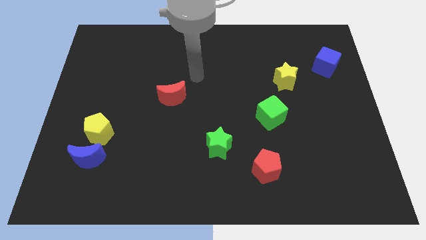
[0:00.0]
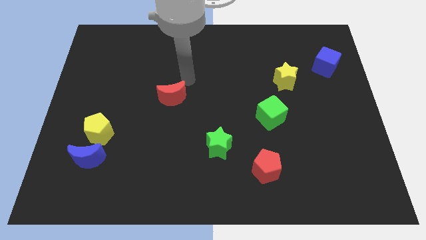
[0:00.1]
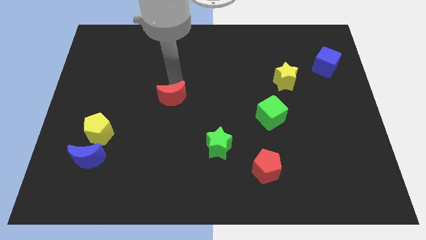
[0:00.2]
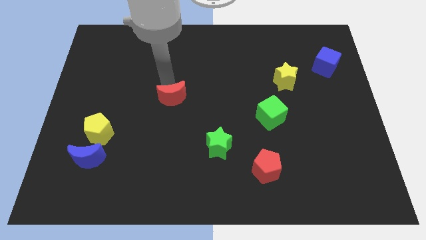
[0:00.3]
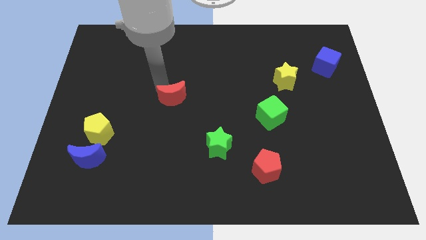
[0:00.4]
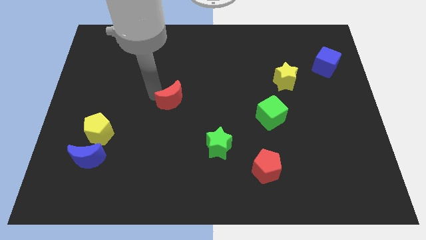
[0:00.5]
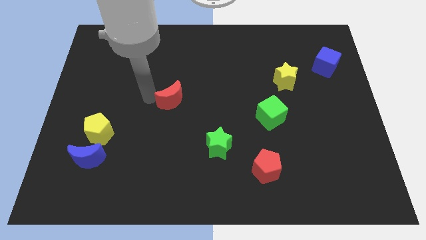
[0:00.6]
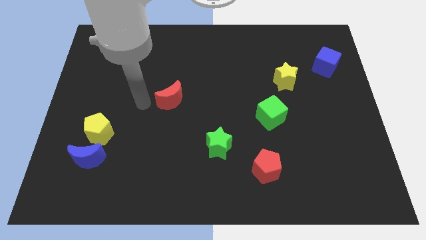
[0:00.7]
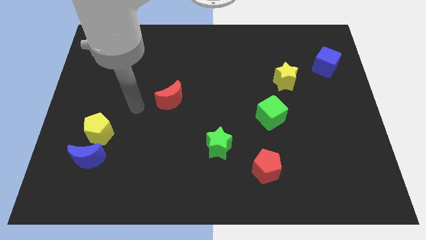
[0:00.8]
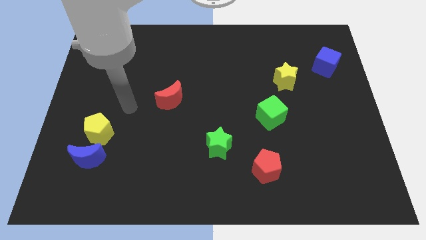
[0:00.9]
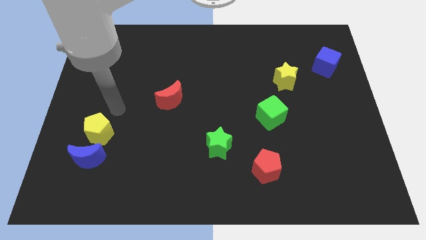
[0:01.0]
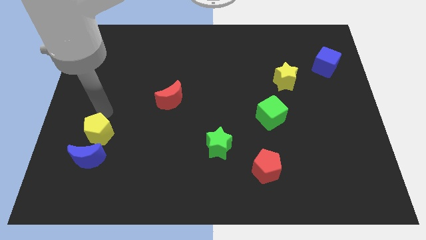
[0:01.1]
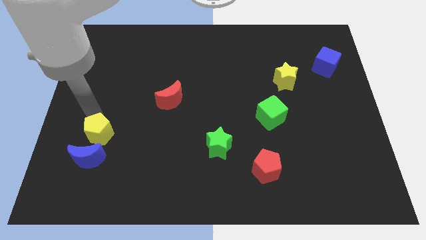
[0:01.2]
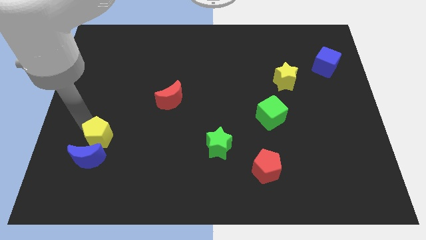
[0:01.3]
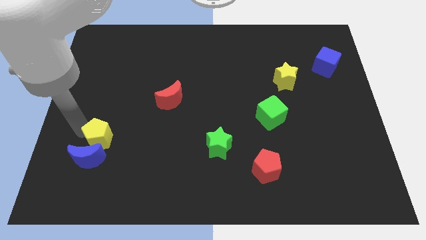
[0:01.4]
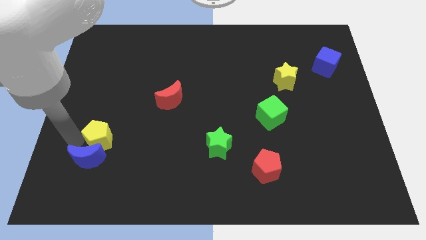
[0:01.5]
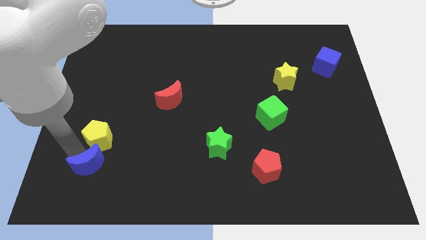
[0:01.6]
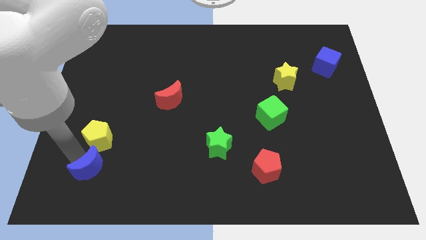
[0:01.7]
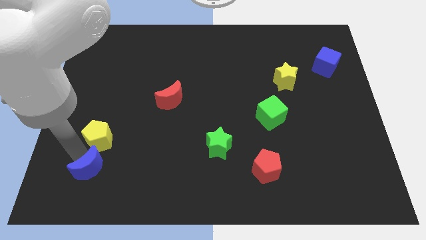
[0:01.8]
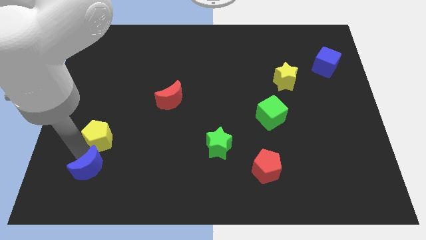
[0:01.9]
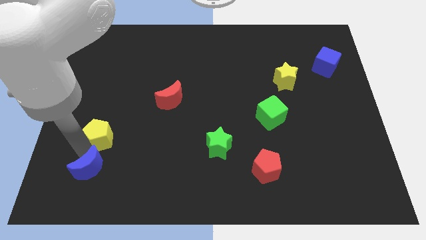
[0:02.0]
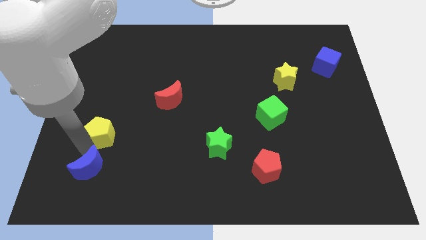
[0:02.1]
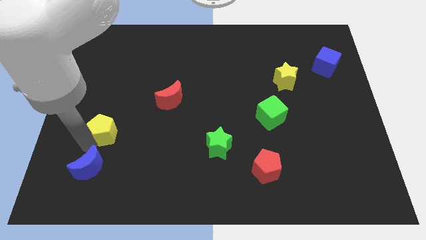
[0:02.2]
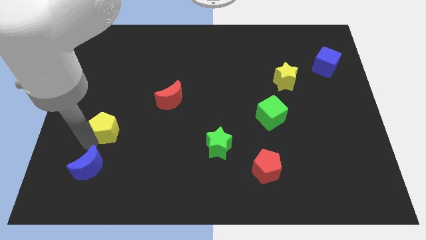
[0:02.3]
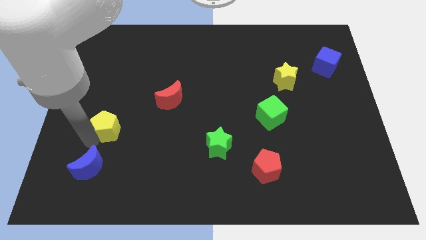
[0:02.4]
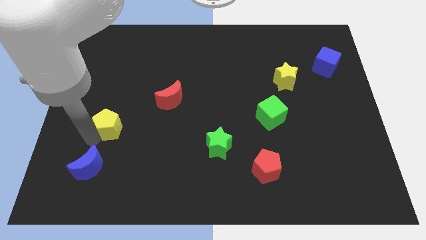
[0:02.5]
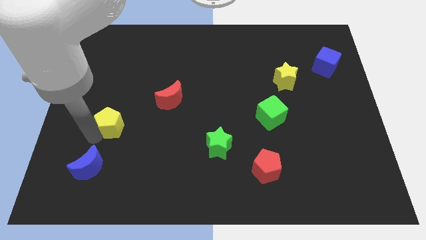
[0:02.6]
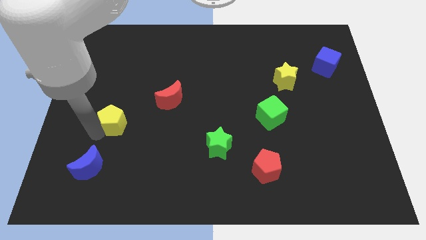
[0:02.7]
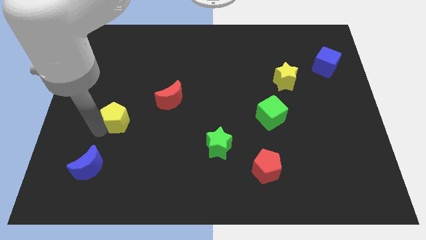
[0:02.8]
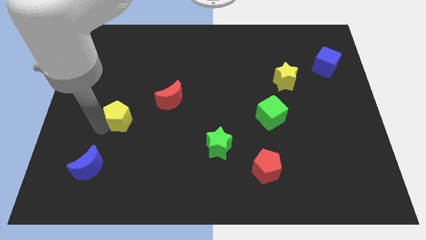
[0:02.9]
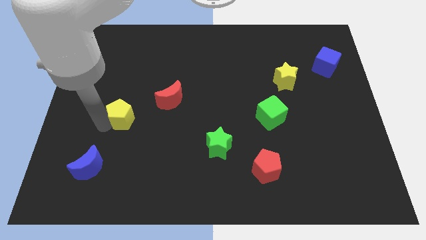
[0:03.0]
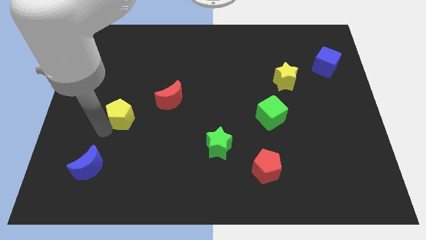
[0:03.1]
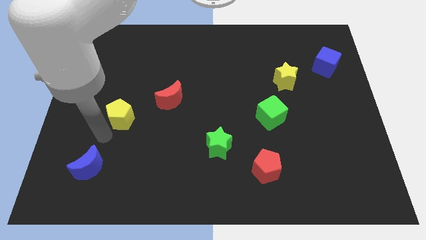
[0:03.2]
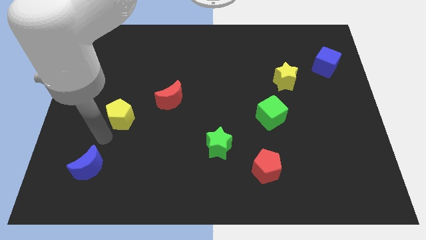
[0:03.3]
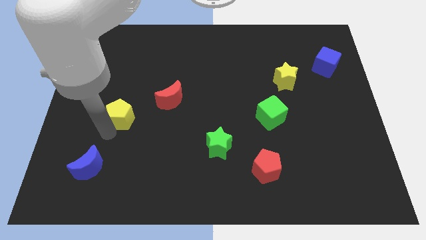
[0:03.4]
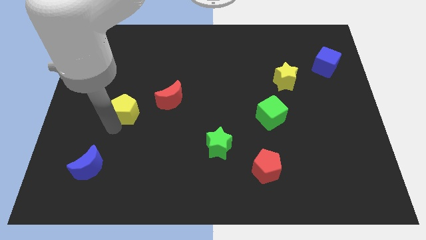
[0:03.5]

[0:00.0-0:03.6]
slide the yellow pentagon a little diagonally up and to the right

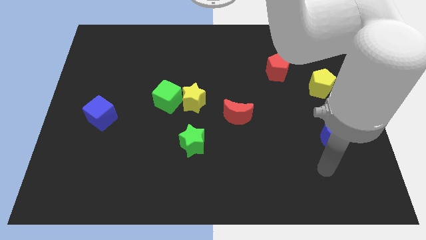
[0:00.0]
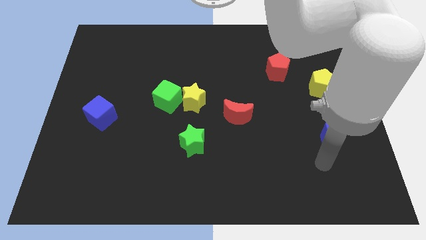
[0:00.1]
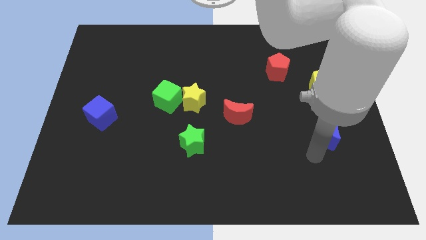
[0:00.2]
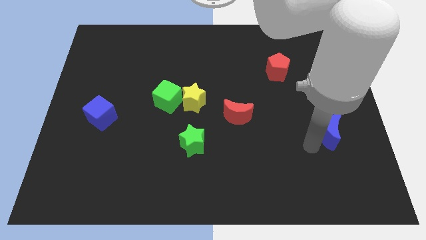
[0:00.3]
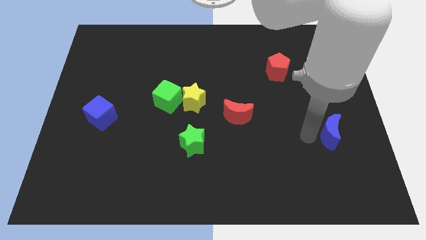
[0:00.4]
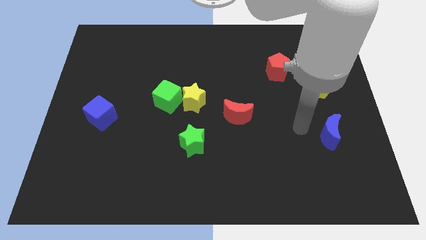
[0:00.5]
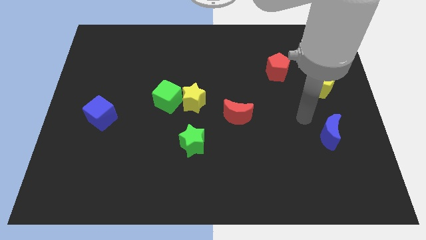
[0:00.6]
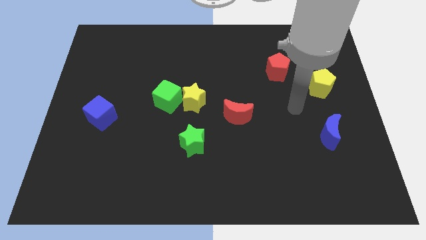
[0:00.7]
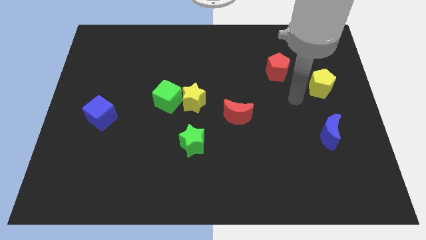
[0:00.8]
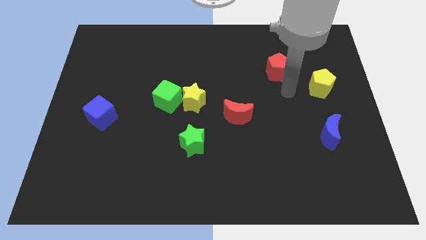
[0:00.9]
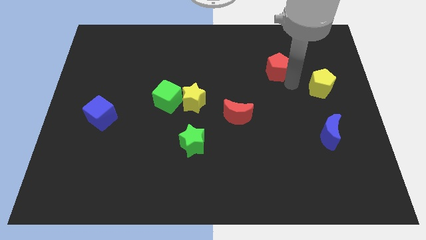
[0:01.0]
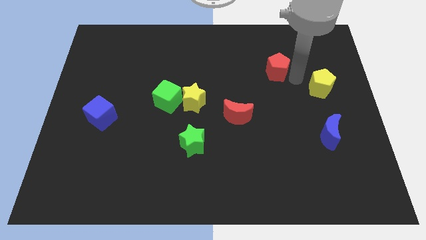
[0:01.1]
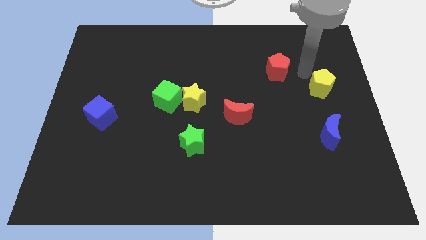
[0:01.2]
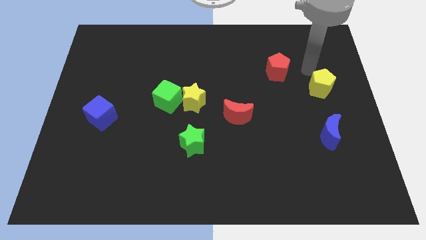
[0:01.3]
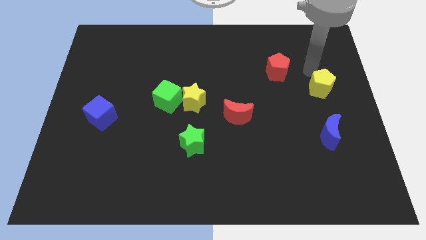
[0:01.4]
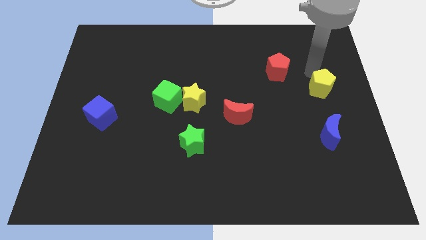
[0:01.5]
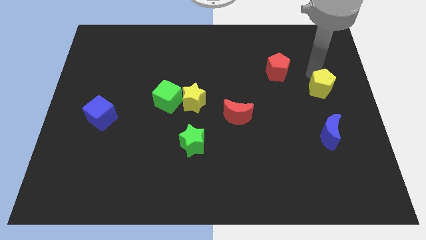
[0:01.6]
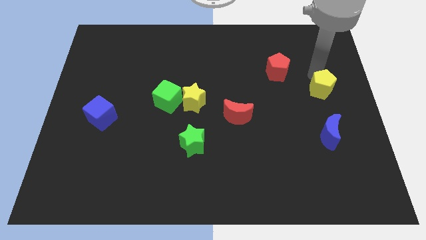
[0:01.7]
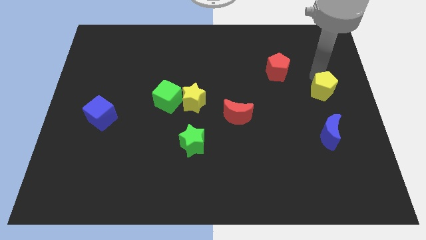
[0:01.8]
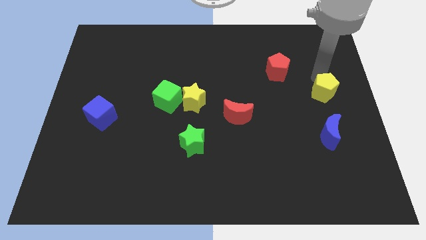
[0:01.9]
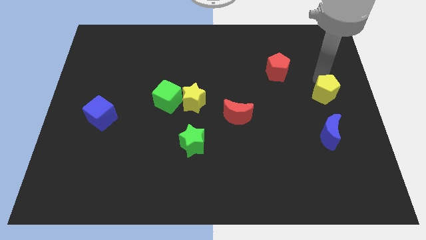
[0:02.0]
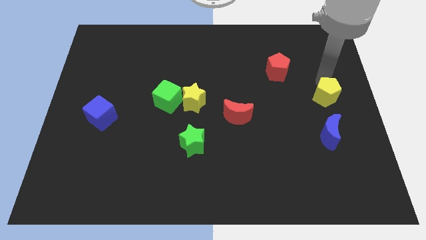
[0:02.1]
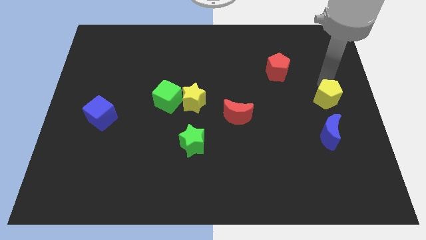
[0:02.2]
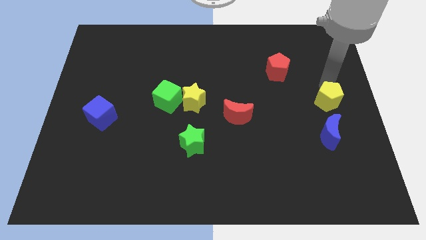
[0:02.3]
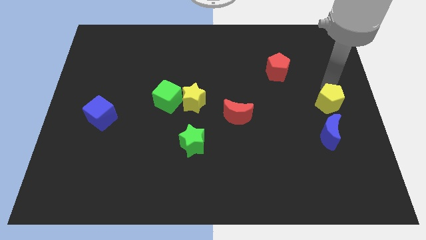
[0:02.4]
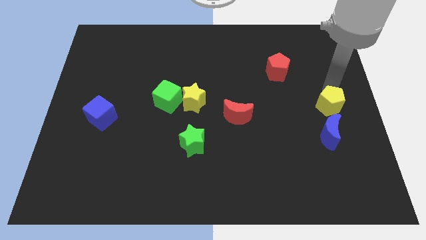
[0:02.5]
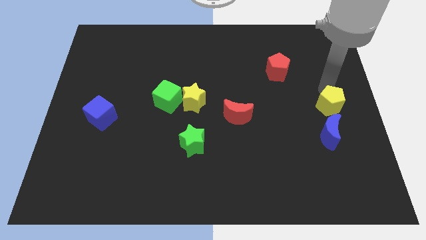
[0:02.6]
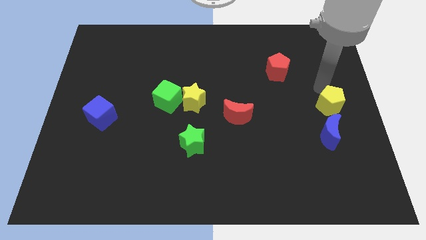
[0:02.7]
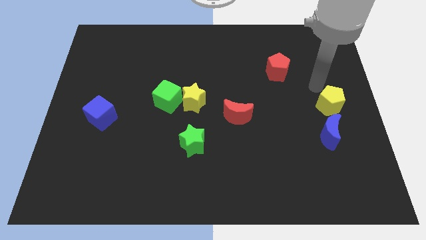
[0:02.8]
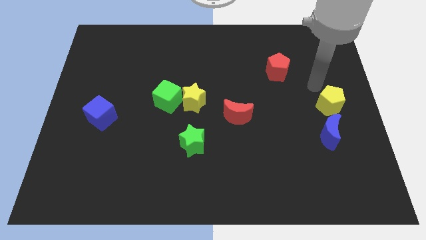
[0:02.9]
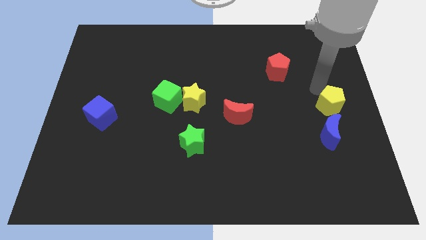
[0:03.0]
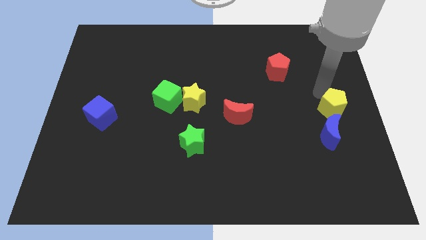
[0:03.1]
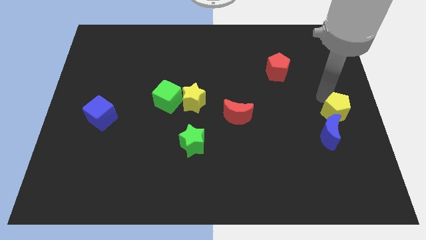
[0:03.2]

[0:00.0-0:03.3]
push the yellow pentagon downwards slightly

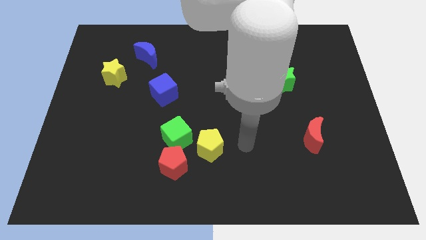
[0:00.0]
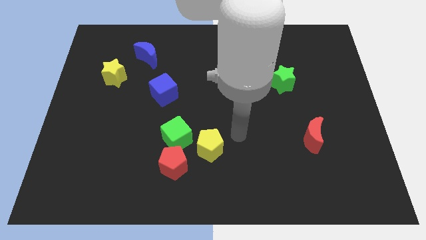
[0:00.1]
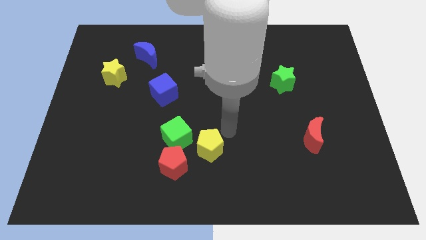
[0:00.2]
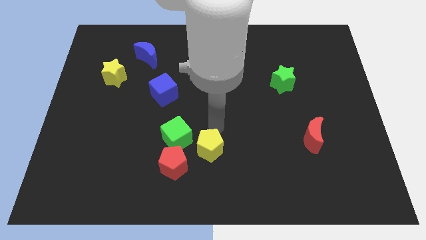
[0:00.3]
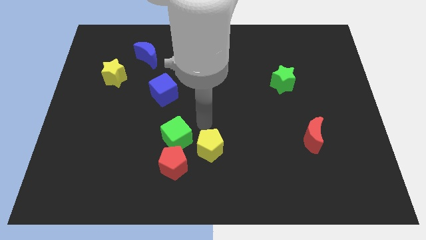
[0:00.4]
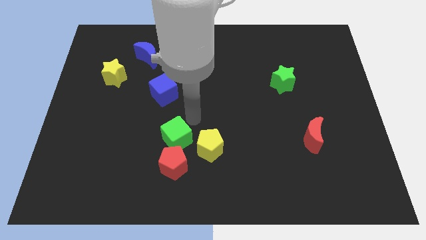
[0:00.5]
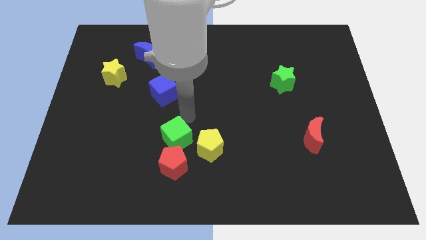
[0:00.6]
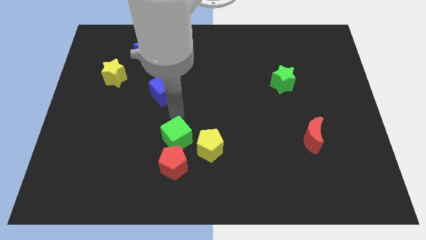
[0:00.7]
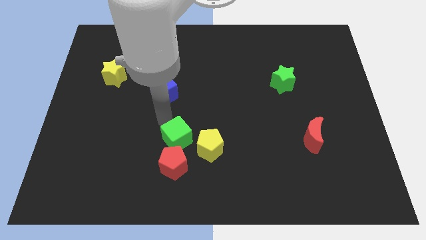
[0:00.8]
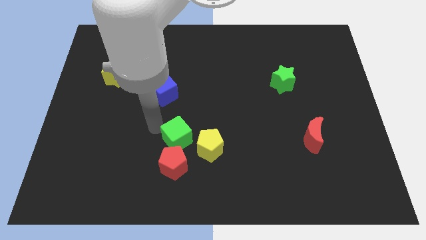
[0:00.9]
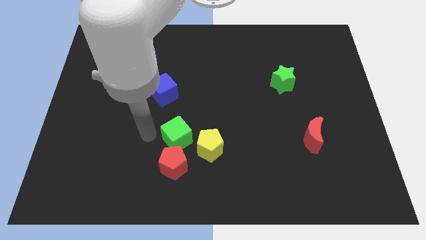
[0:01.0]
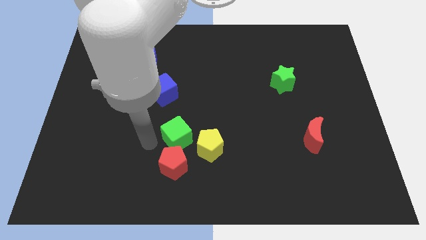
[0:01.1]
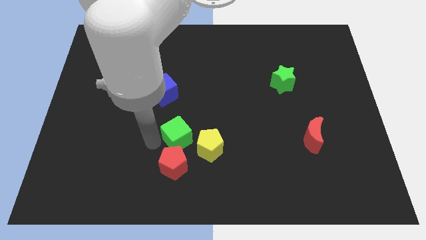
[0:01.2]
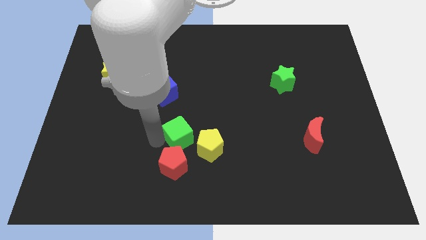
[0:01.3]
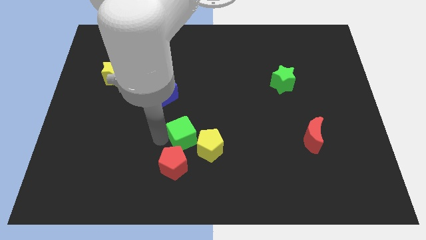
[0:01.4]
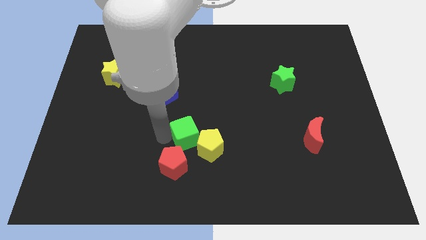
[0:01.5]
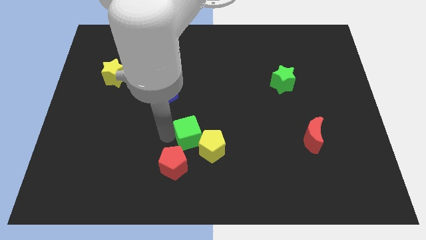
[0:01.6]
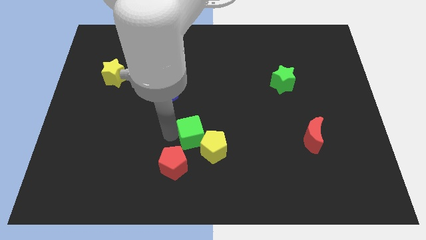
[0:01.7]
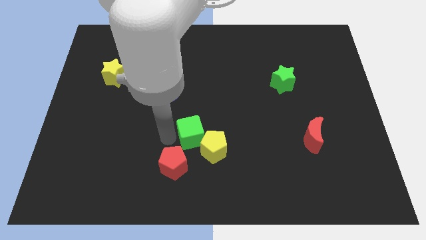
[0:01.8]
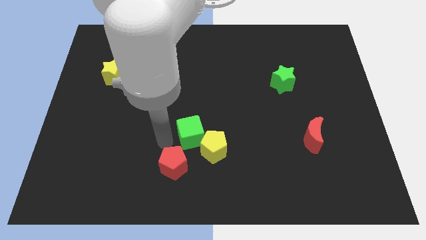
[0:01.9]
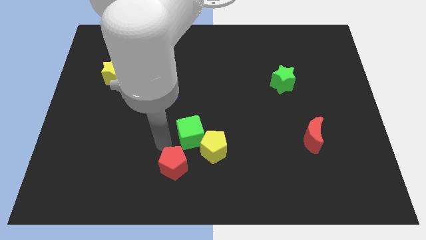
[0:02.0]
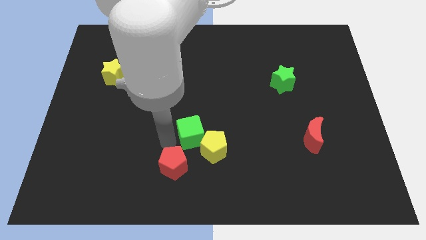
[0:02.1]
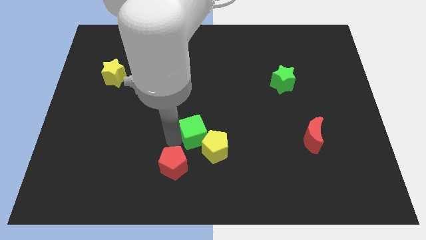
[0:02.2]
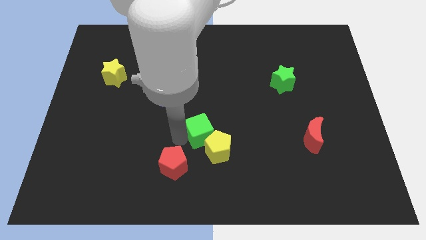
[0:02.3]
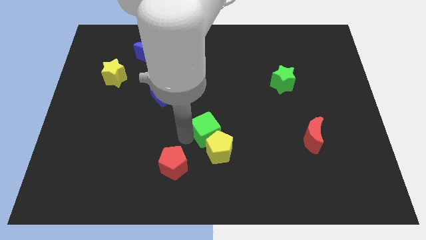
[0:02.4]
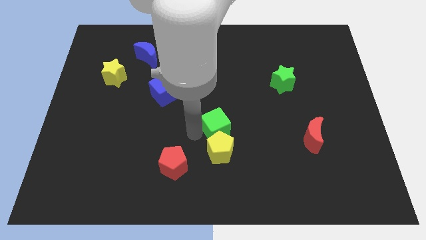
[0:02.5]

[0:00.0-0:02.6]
move the green cube to the right a bit
